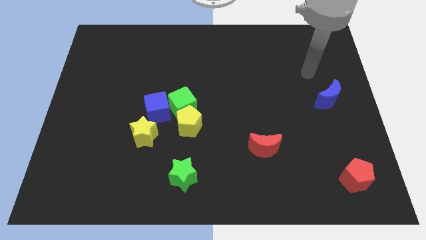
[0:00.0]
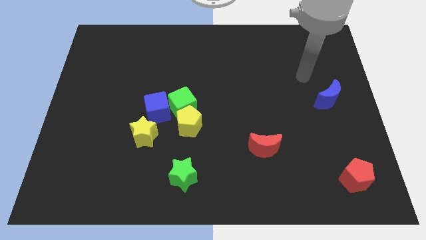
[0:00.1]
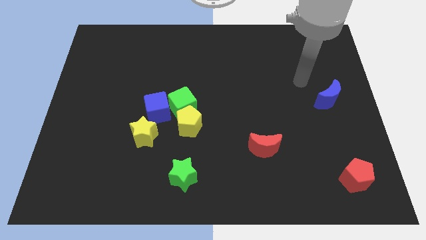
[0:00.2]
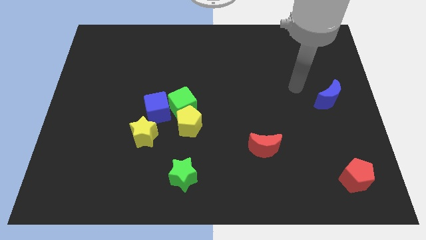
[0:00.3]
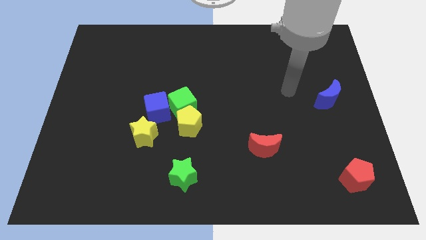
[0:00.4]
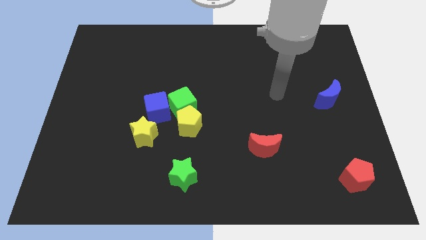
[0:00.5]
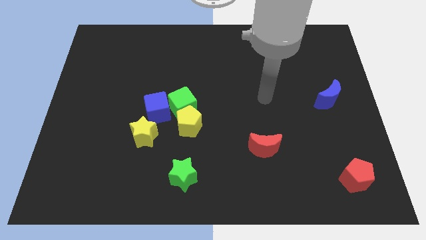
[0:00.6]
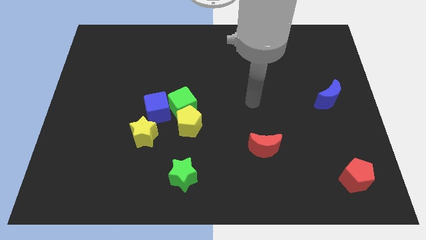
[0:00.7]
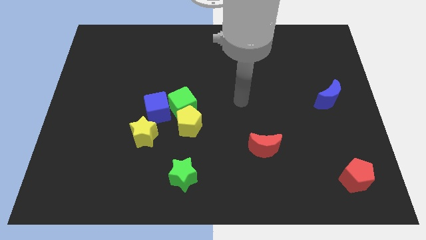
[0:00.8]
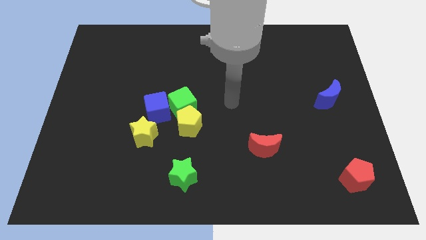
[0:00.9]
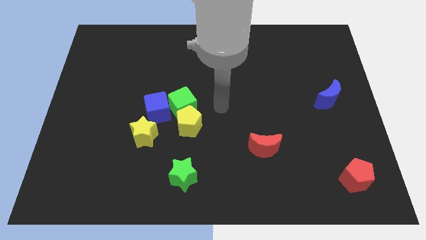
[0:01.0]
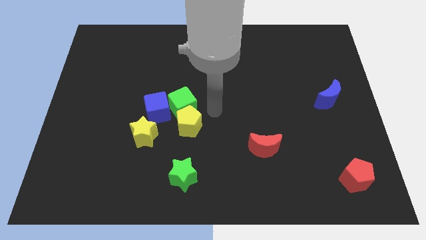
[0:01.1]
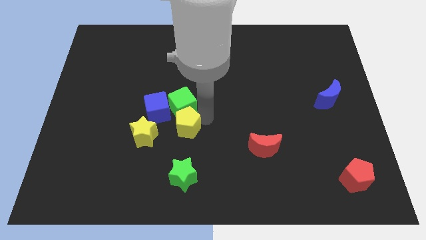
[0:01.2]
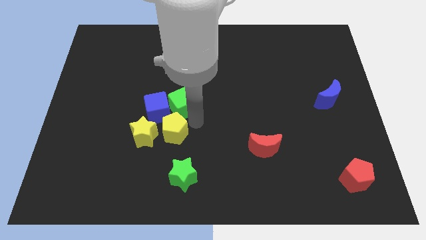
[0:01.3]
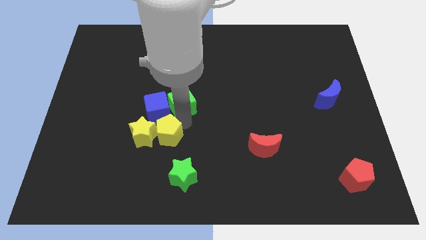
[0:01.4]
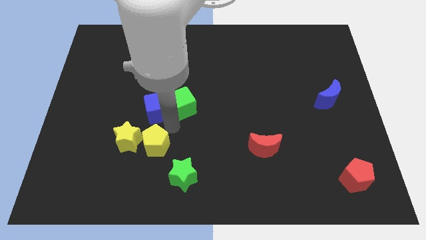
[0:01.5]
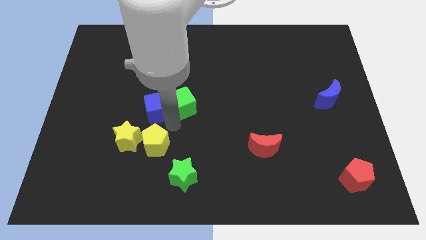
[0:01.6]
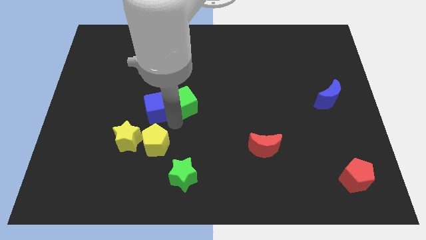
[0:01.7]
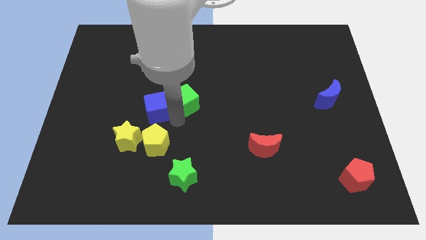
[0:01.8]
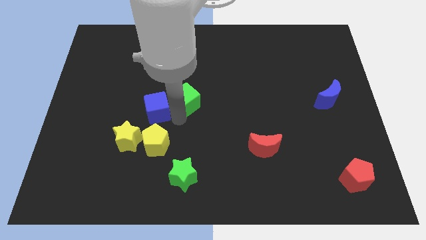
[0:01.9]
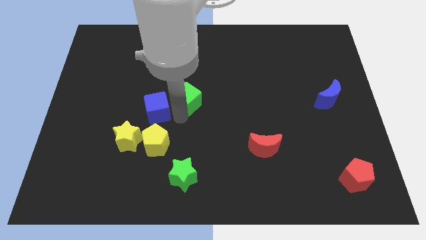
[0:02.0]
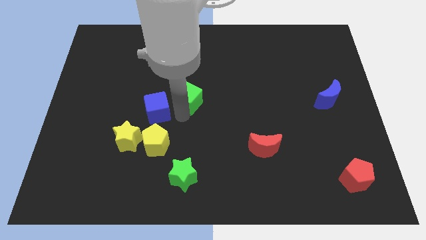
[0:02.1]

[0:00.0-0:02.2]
move the green cube away from the yellow pentagon and blue cube

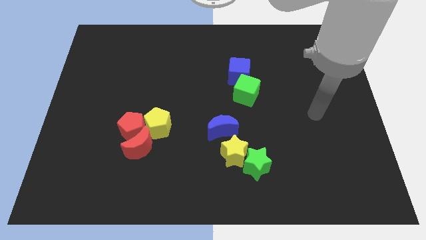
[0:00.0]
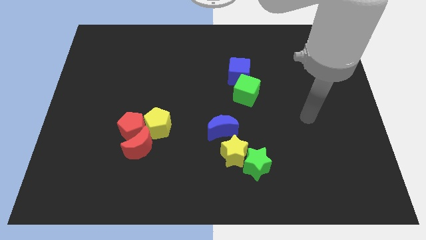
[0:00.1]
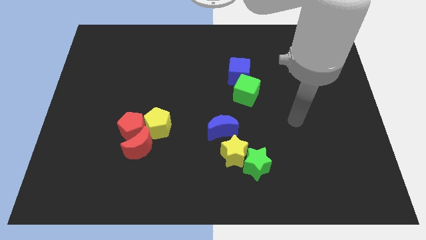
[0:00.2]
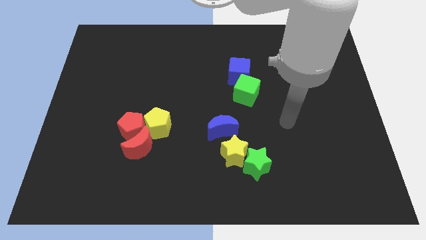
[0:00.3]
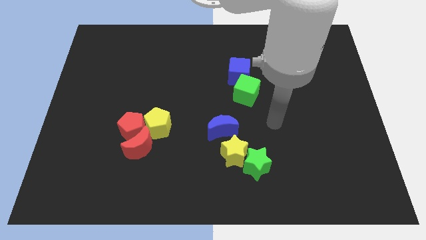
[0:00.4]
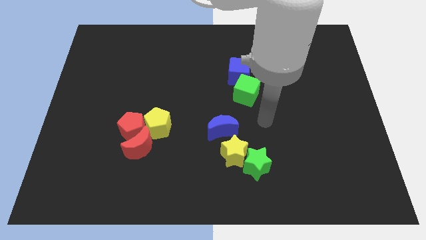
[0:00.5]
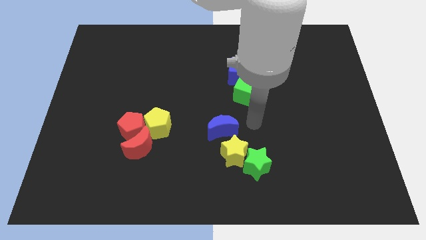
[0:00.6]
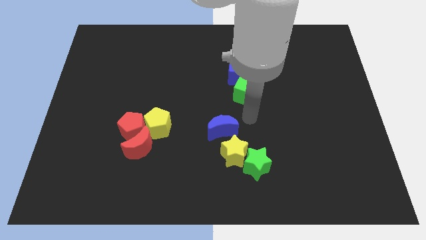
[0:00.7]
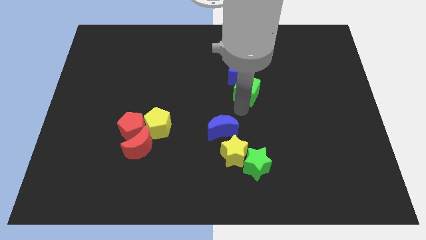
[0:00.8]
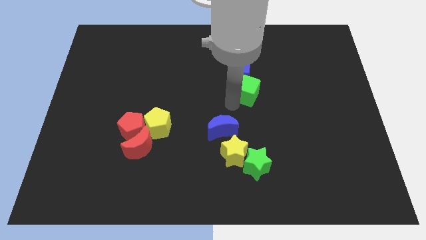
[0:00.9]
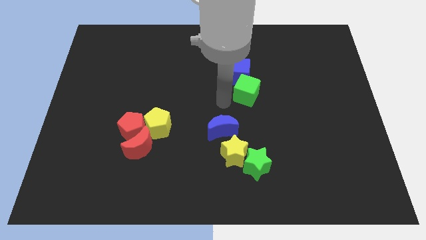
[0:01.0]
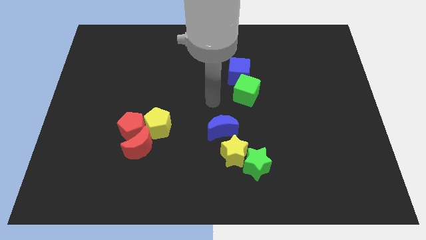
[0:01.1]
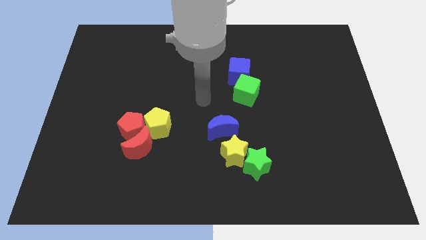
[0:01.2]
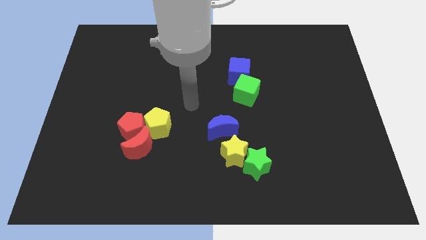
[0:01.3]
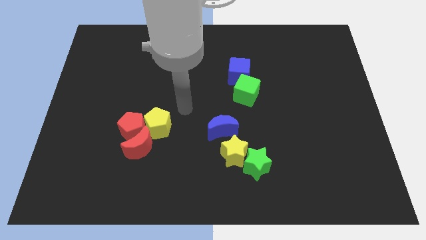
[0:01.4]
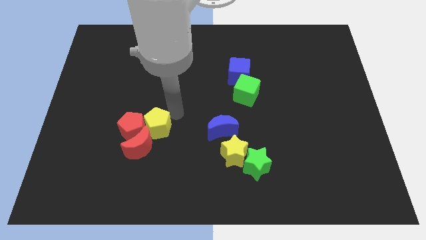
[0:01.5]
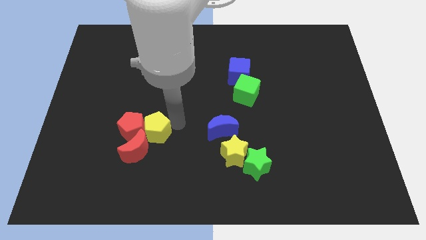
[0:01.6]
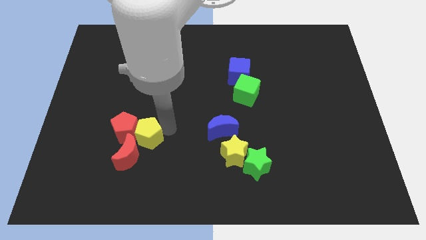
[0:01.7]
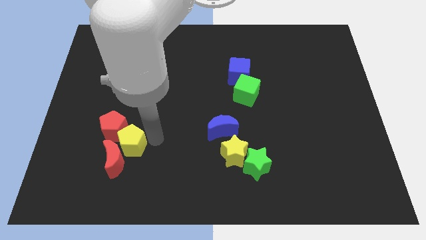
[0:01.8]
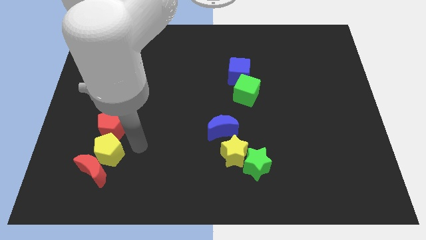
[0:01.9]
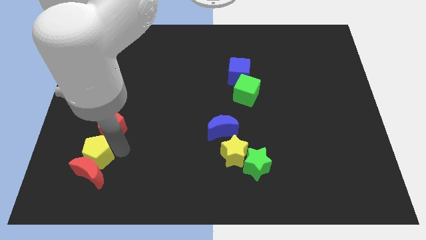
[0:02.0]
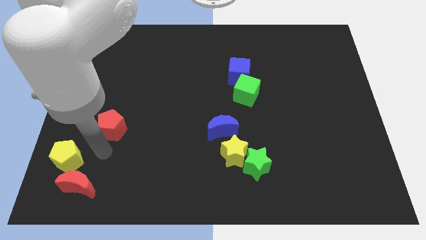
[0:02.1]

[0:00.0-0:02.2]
pull the red pentagon apart from the red moon and yellow pentagon

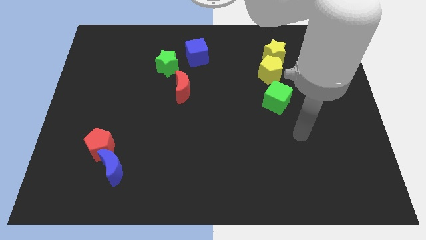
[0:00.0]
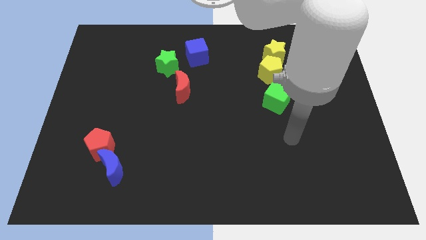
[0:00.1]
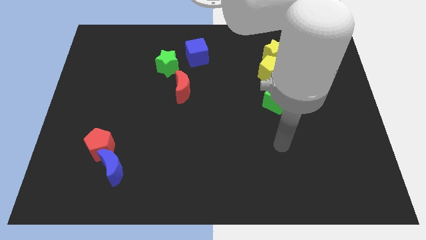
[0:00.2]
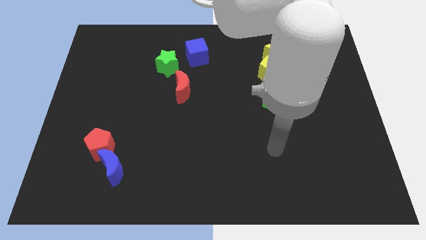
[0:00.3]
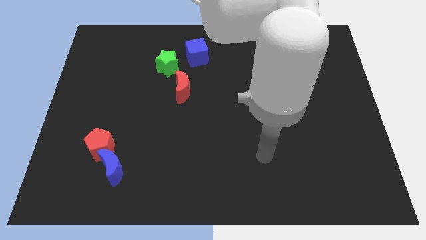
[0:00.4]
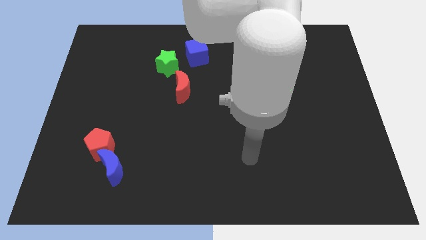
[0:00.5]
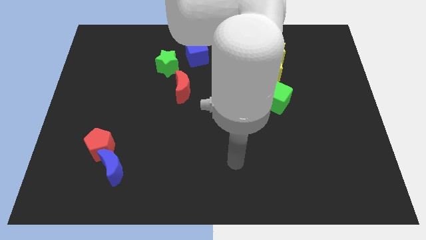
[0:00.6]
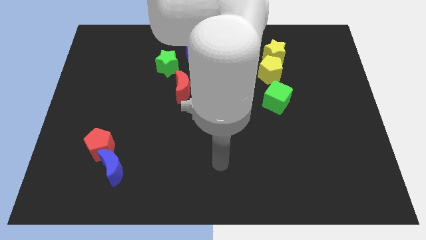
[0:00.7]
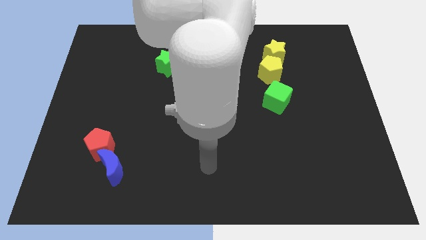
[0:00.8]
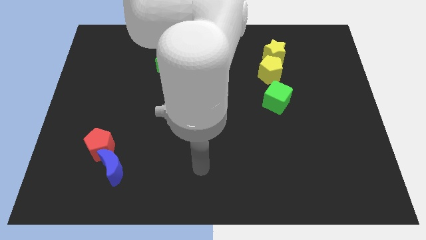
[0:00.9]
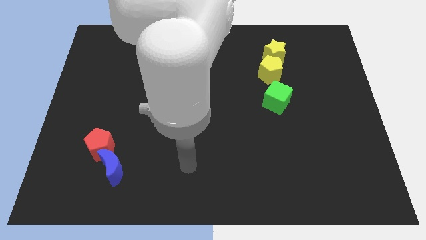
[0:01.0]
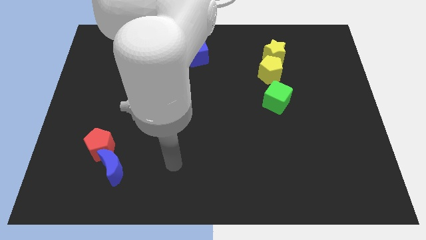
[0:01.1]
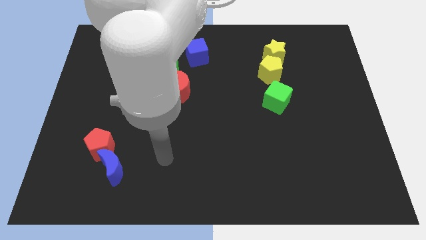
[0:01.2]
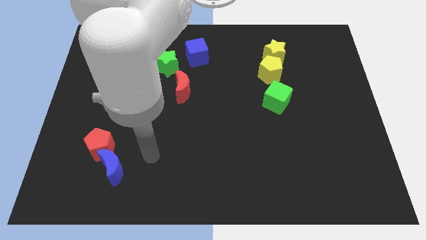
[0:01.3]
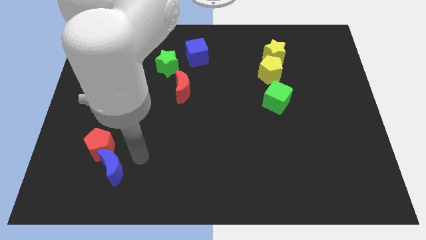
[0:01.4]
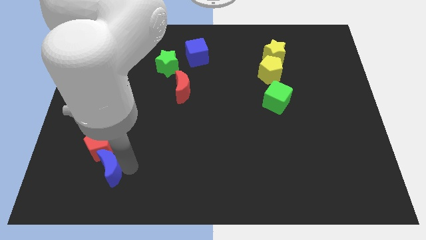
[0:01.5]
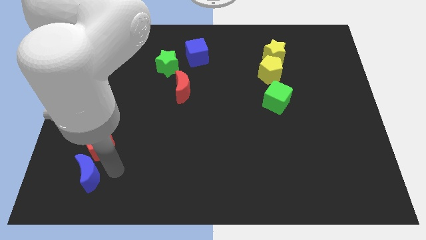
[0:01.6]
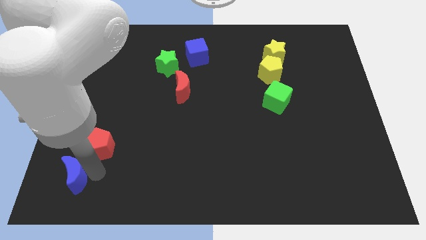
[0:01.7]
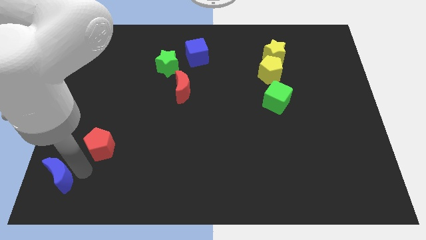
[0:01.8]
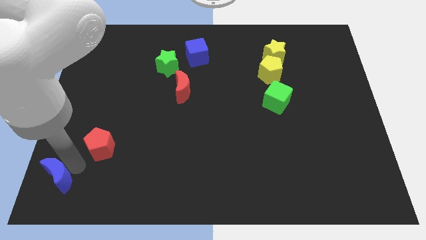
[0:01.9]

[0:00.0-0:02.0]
move the red pentagon away from the blue moon

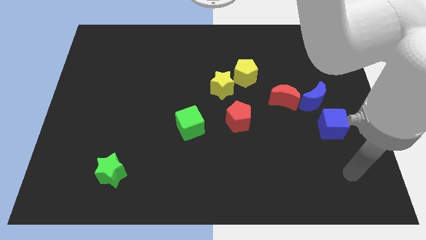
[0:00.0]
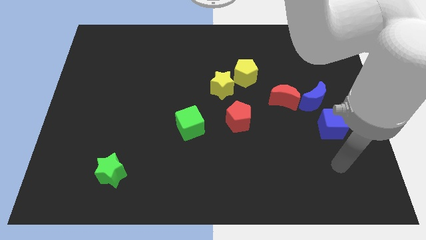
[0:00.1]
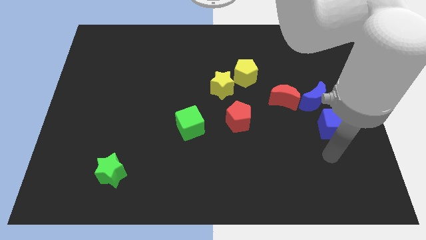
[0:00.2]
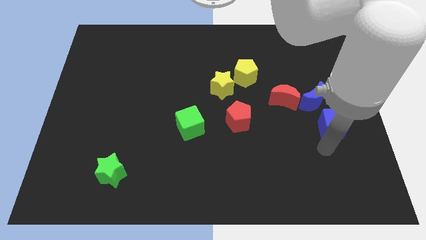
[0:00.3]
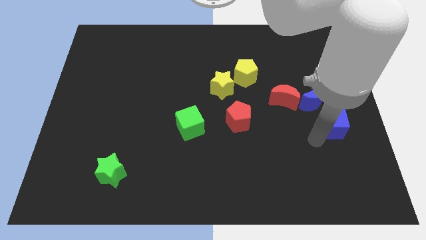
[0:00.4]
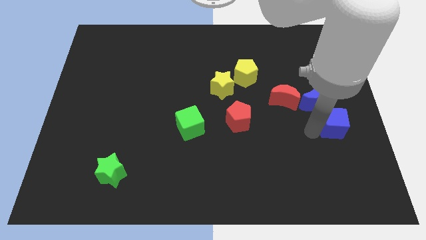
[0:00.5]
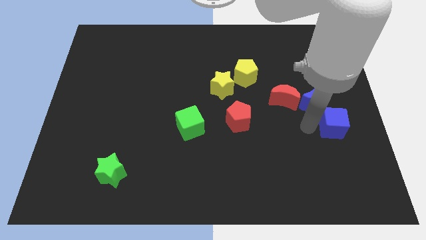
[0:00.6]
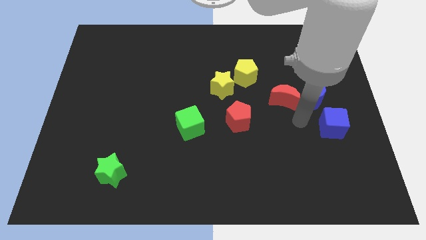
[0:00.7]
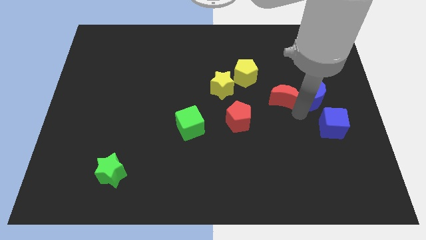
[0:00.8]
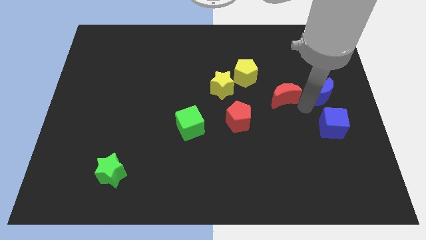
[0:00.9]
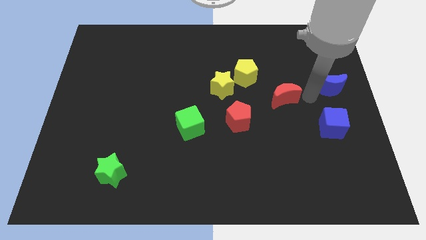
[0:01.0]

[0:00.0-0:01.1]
move the red moon away from the blue moon

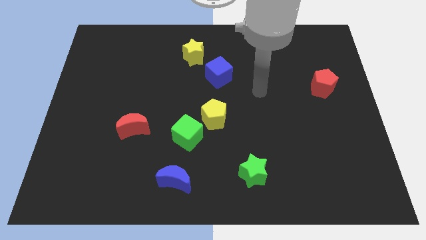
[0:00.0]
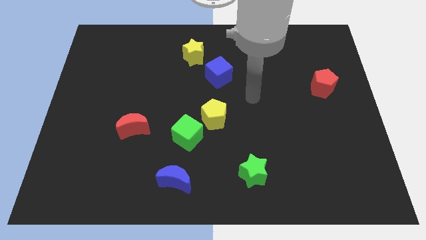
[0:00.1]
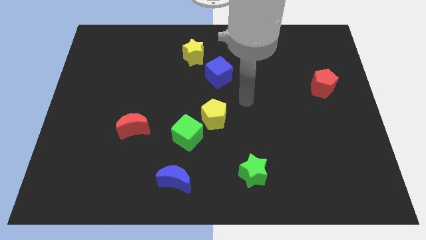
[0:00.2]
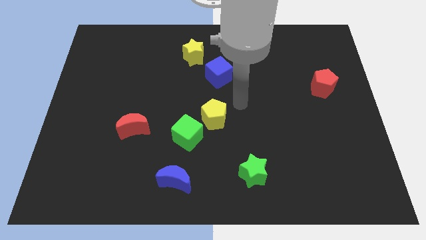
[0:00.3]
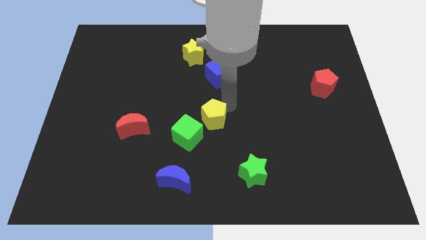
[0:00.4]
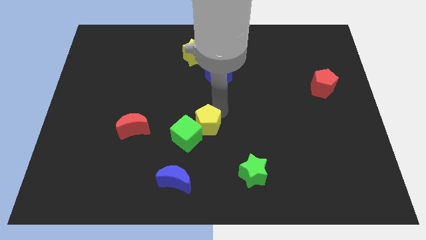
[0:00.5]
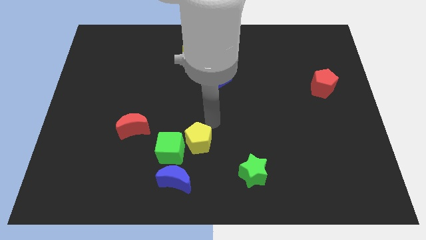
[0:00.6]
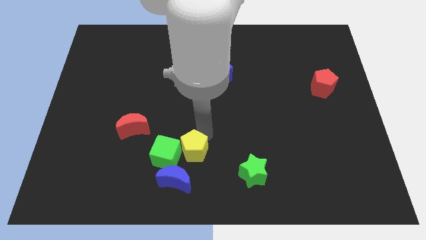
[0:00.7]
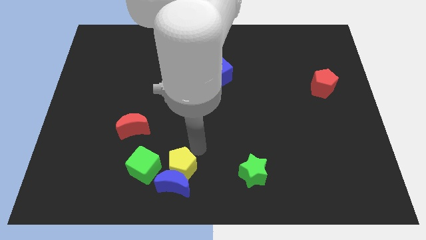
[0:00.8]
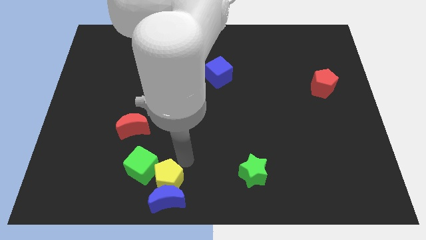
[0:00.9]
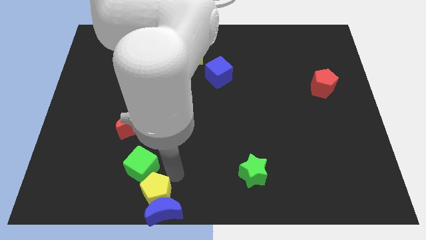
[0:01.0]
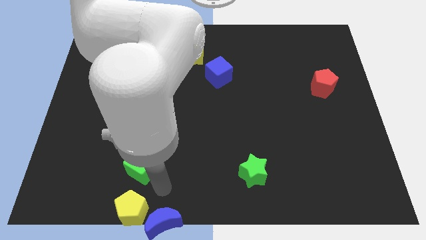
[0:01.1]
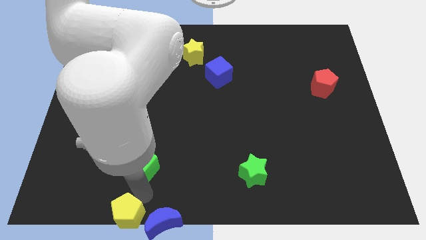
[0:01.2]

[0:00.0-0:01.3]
pull the green cube apart from the yellow pentagon

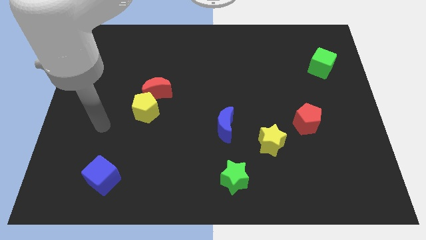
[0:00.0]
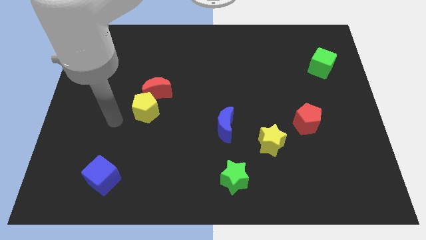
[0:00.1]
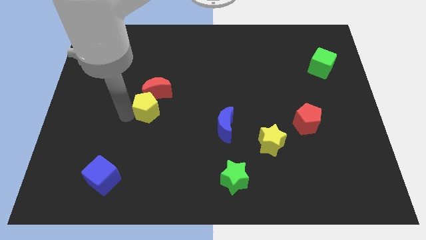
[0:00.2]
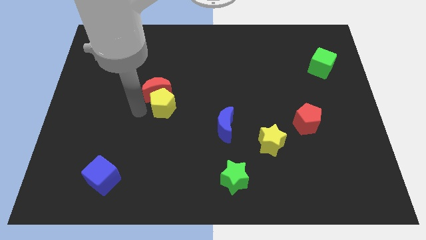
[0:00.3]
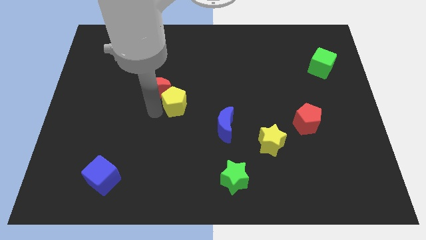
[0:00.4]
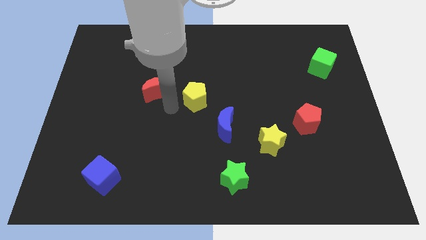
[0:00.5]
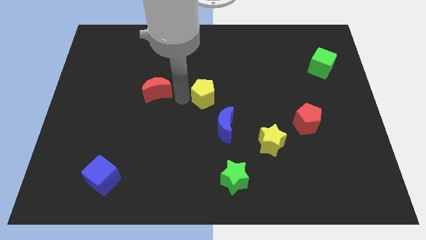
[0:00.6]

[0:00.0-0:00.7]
move the red moon away from the yellow pentagon
